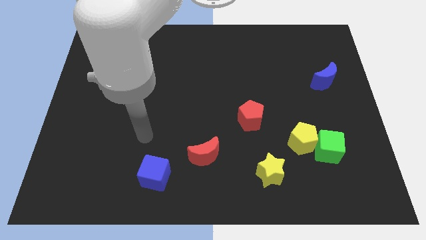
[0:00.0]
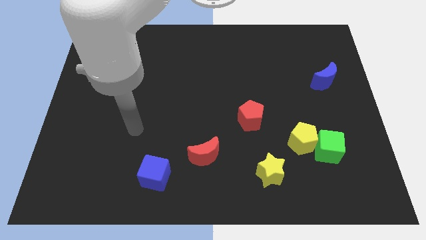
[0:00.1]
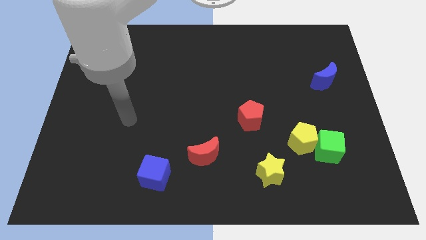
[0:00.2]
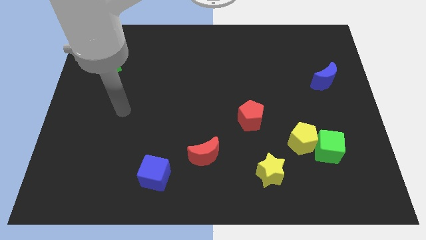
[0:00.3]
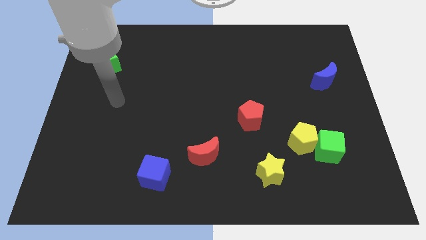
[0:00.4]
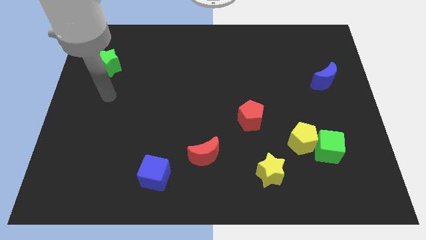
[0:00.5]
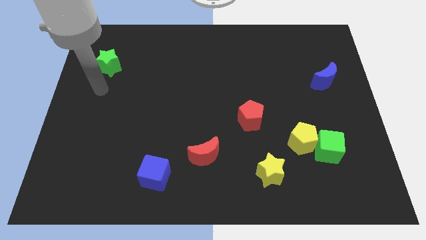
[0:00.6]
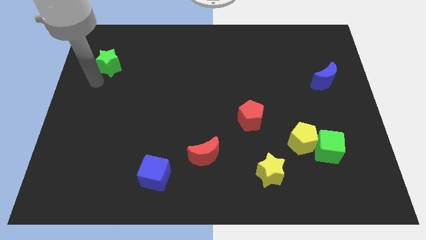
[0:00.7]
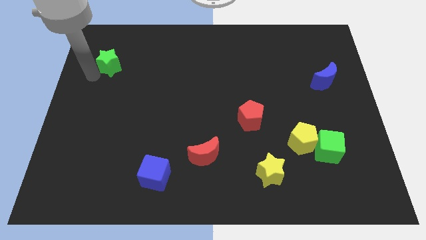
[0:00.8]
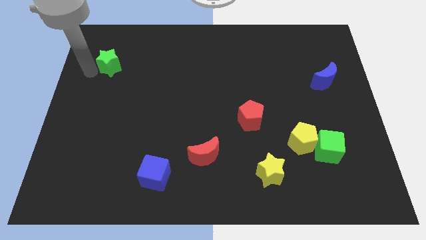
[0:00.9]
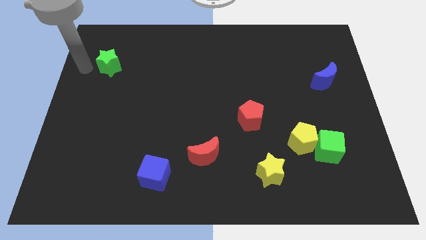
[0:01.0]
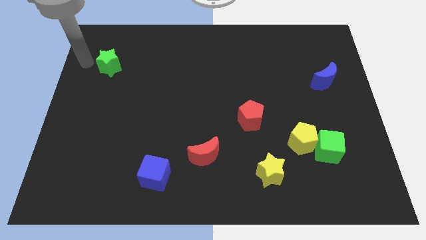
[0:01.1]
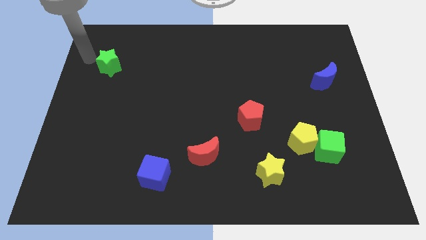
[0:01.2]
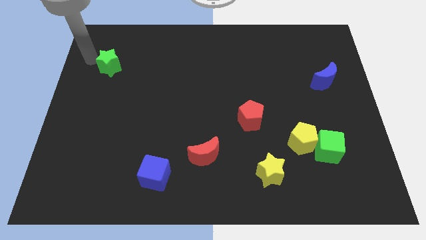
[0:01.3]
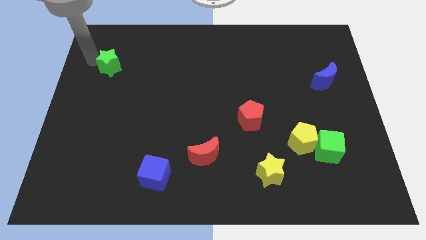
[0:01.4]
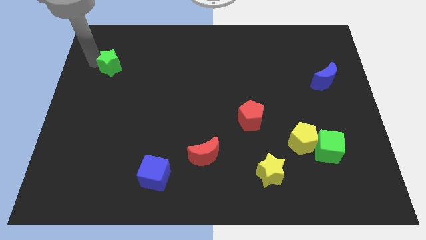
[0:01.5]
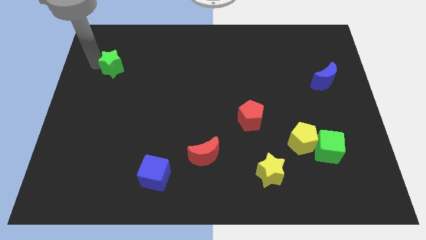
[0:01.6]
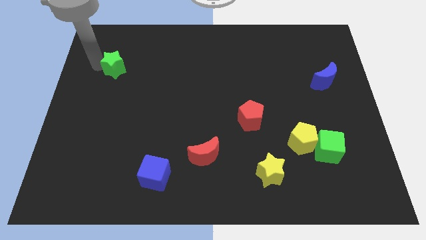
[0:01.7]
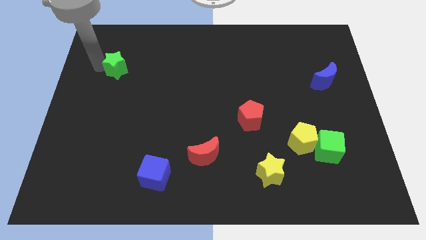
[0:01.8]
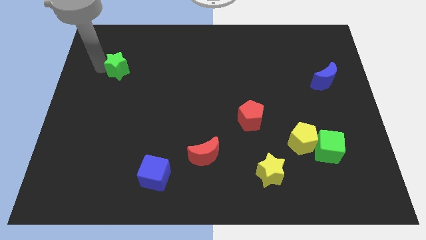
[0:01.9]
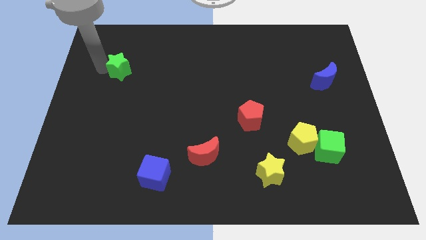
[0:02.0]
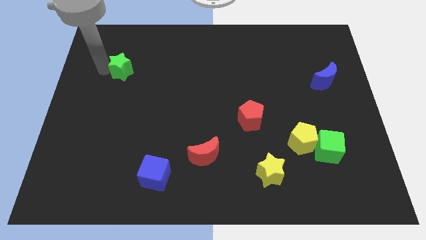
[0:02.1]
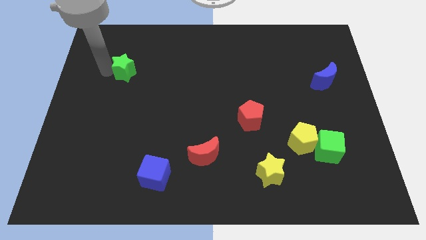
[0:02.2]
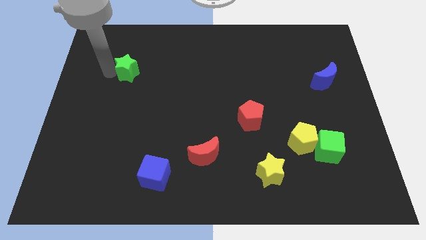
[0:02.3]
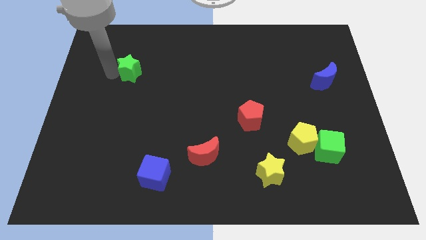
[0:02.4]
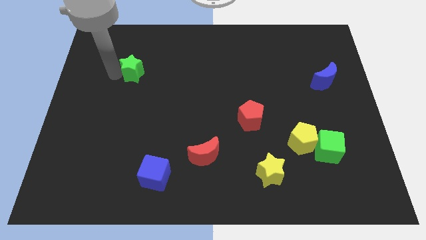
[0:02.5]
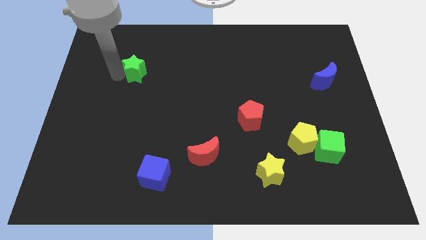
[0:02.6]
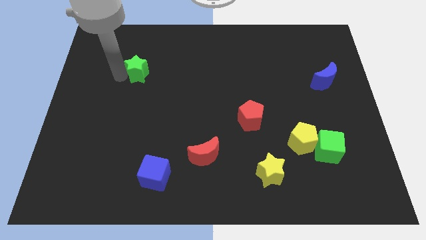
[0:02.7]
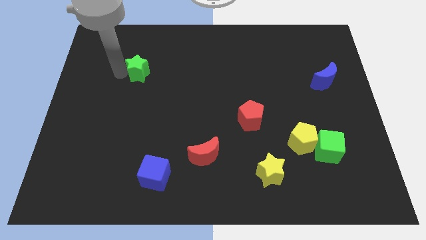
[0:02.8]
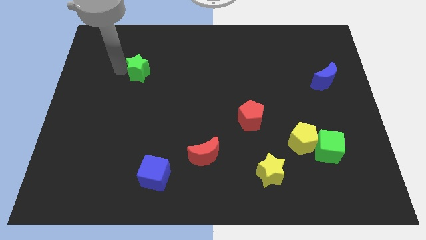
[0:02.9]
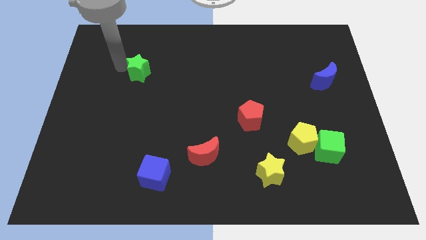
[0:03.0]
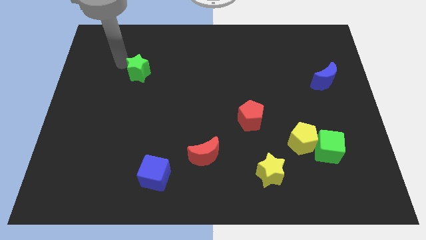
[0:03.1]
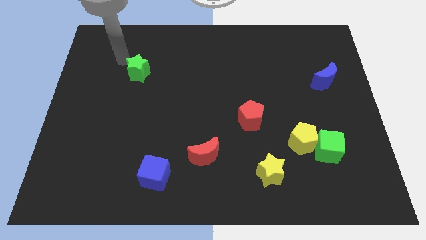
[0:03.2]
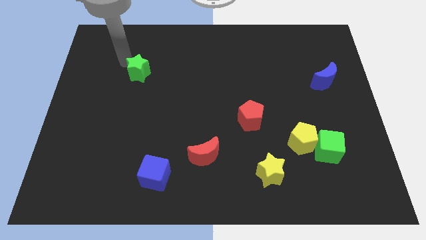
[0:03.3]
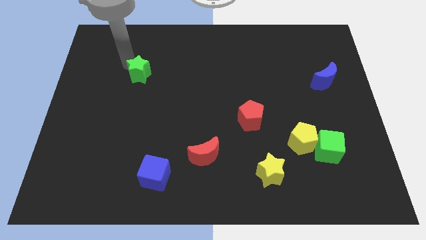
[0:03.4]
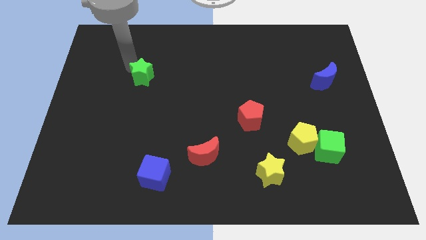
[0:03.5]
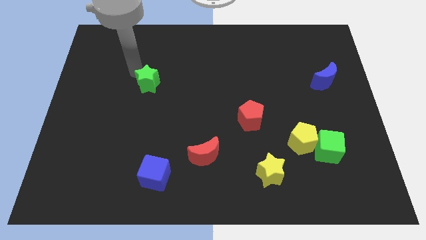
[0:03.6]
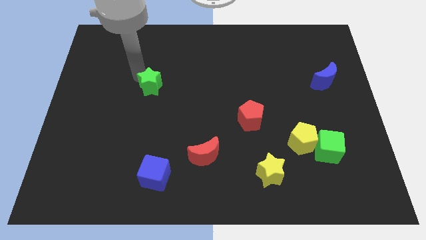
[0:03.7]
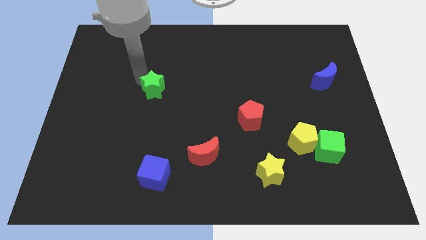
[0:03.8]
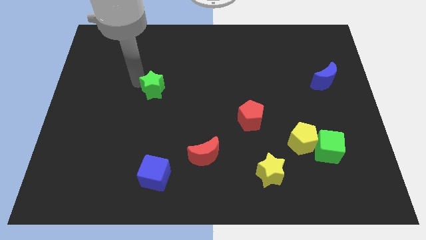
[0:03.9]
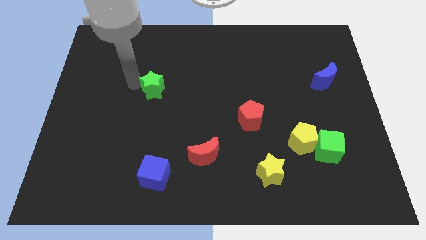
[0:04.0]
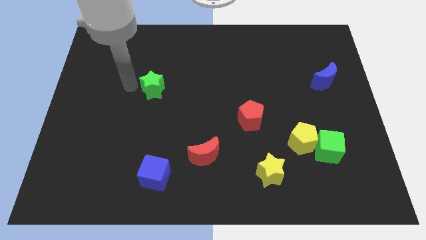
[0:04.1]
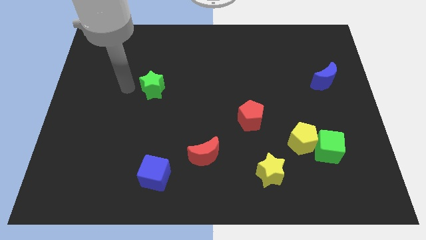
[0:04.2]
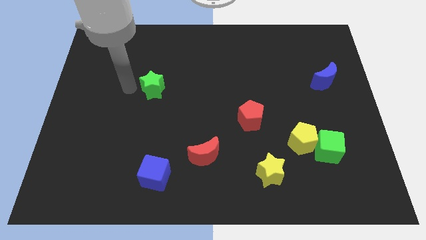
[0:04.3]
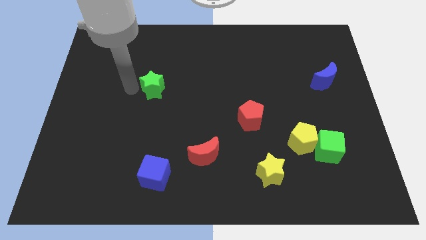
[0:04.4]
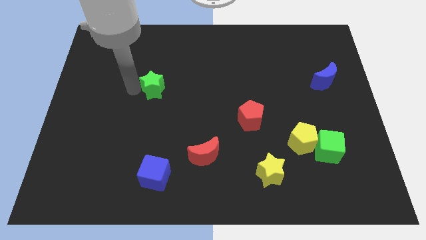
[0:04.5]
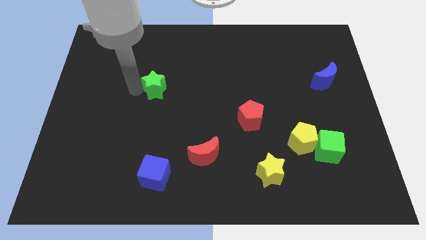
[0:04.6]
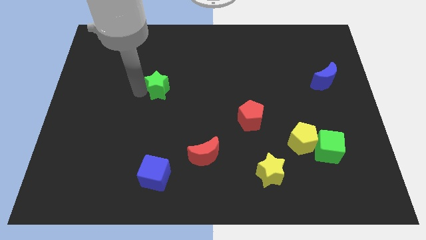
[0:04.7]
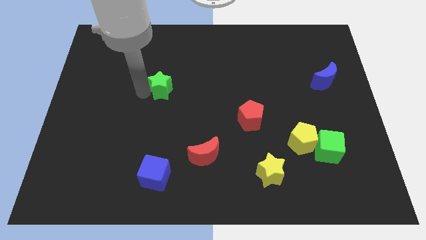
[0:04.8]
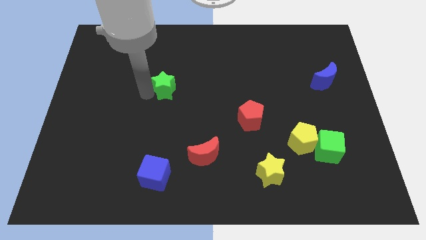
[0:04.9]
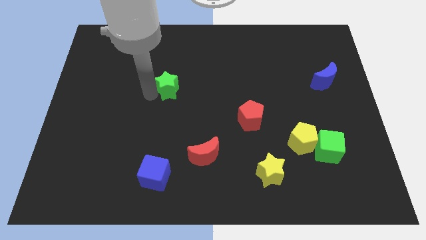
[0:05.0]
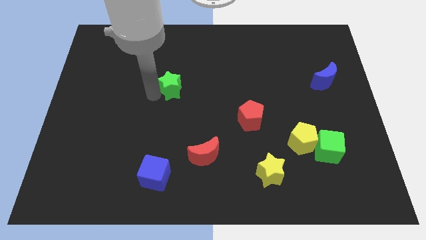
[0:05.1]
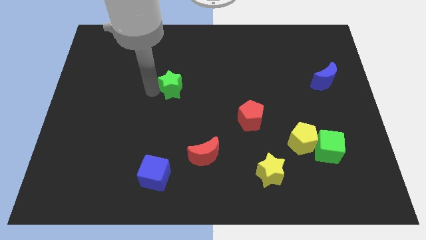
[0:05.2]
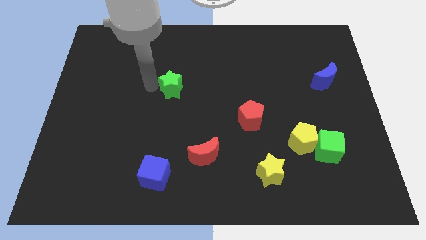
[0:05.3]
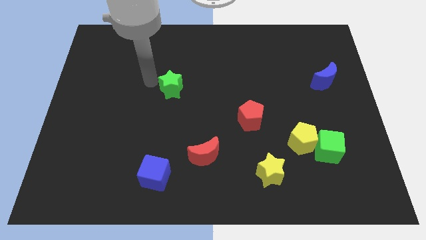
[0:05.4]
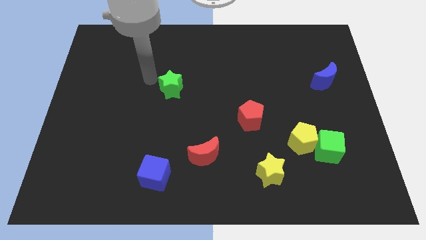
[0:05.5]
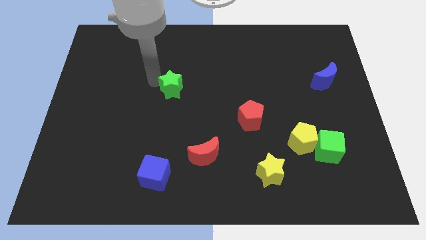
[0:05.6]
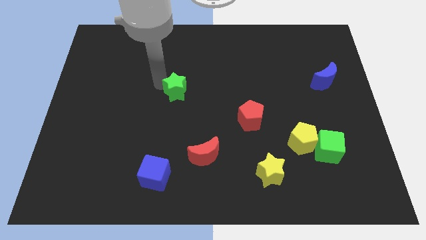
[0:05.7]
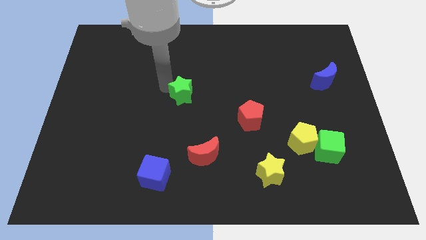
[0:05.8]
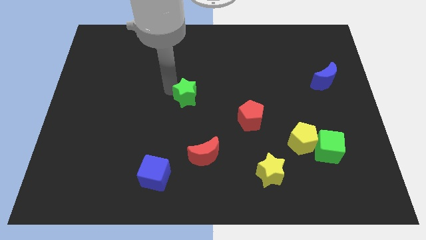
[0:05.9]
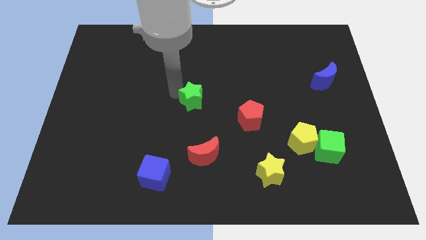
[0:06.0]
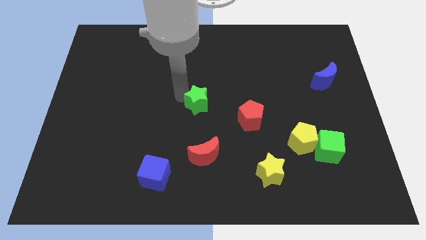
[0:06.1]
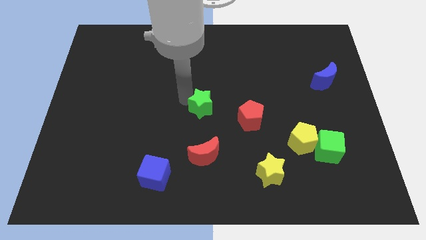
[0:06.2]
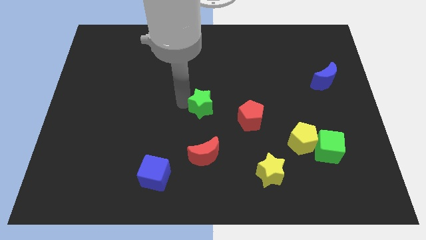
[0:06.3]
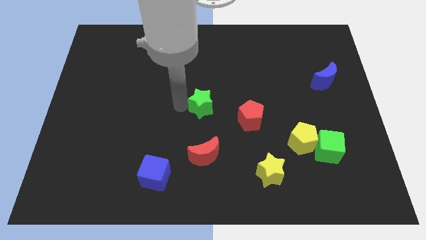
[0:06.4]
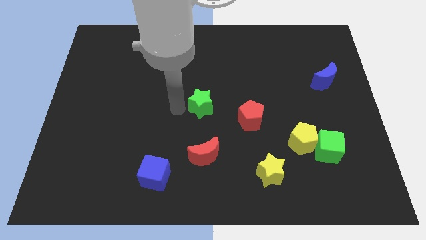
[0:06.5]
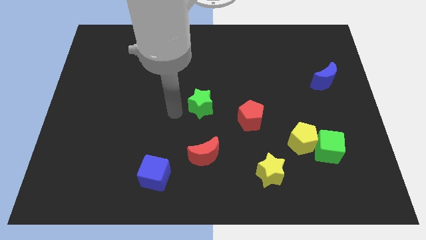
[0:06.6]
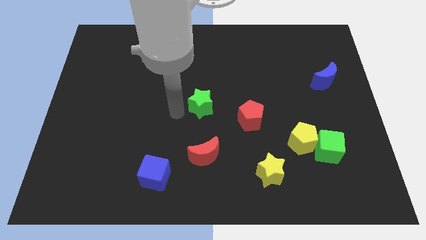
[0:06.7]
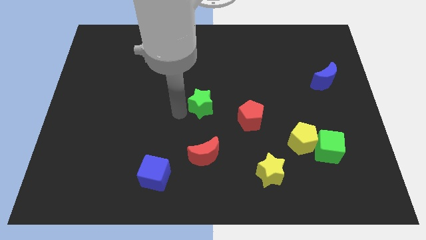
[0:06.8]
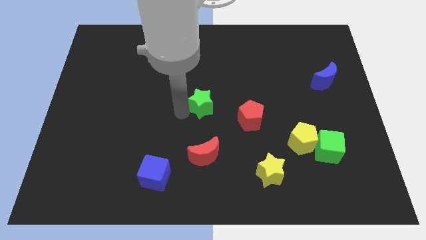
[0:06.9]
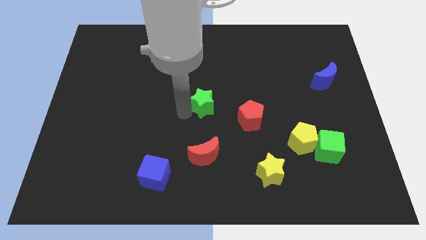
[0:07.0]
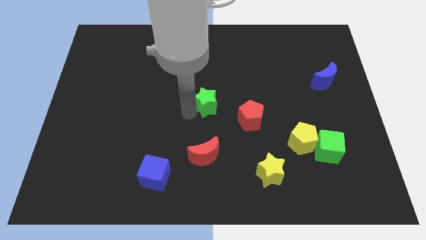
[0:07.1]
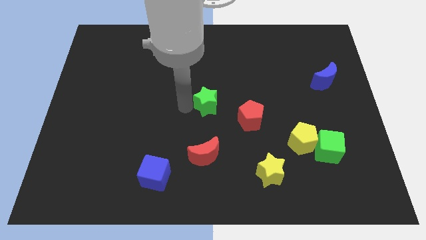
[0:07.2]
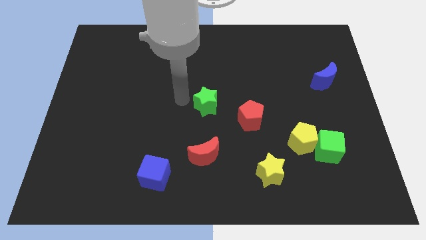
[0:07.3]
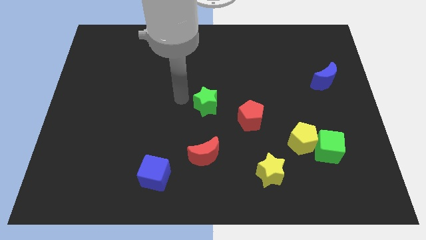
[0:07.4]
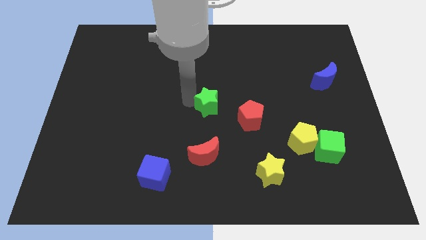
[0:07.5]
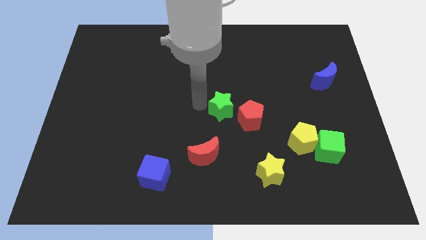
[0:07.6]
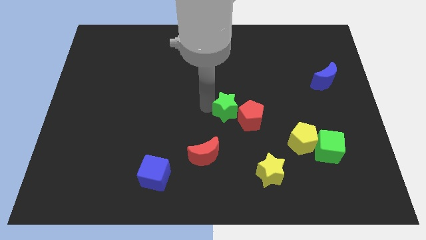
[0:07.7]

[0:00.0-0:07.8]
slide the green star towards the red pentagon

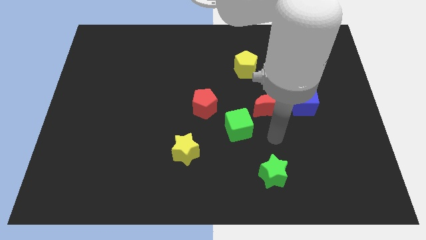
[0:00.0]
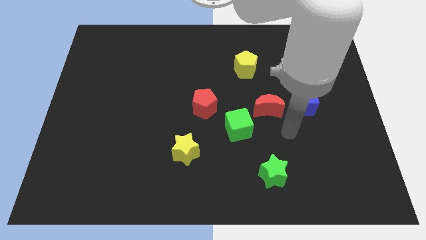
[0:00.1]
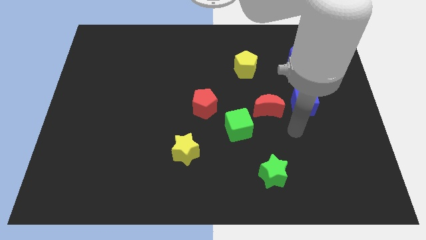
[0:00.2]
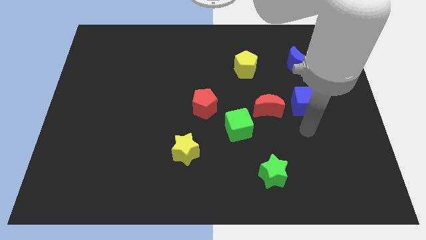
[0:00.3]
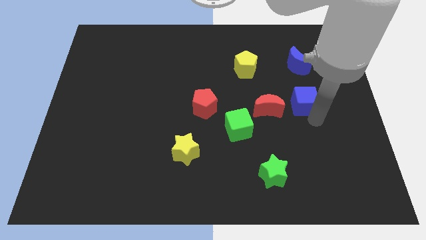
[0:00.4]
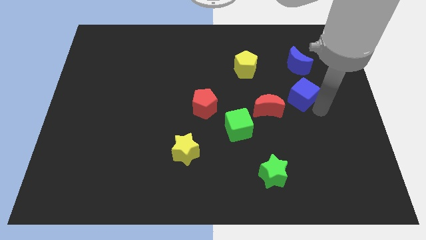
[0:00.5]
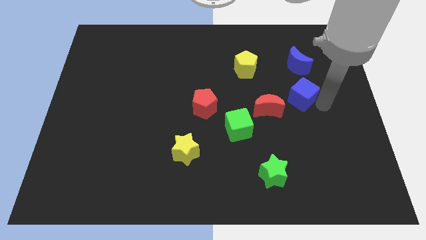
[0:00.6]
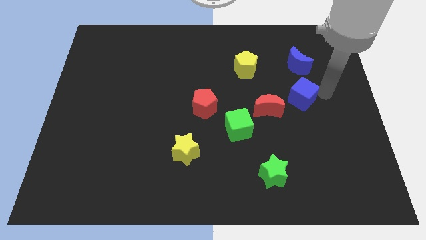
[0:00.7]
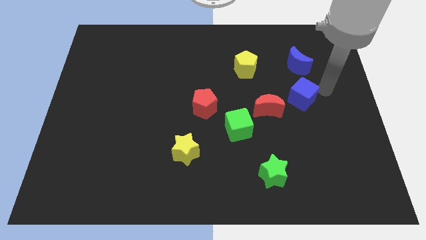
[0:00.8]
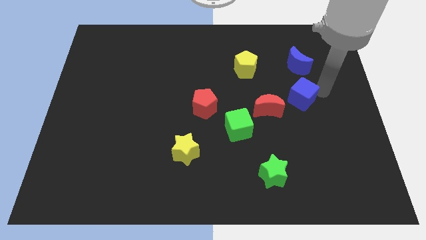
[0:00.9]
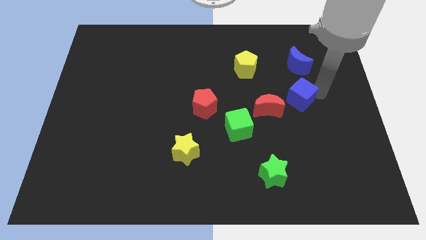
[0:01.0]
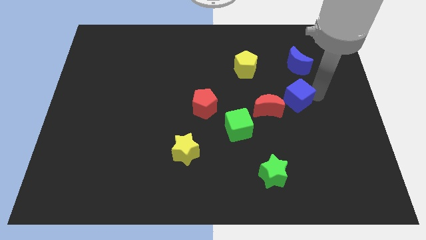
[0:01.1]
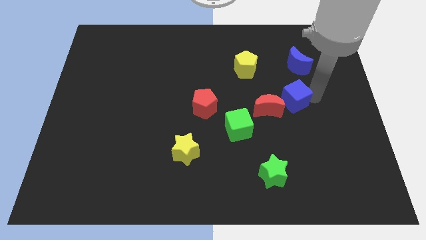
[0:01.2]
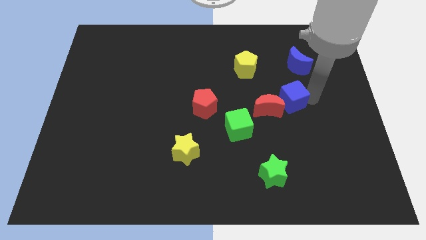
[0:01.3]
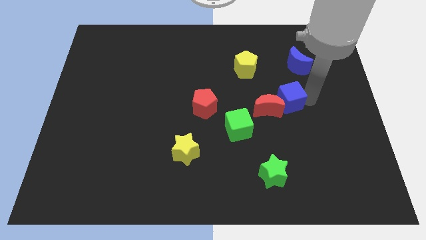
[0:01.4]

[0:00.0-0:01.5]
put the blue cube to the red moon
